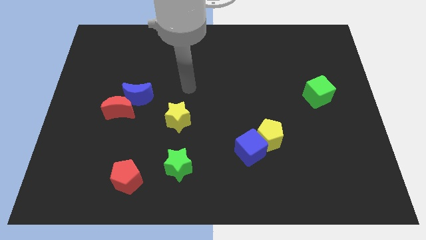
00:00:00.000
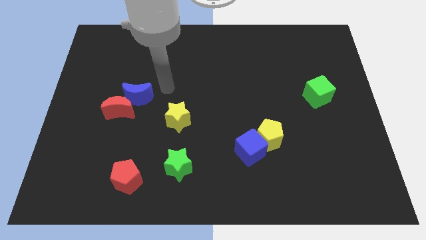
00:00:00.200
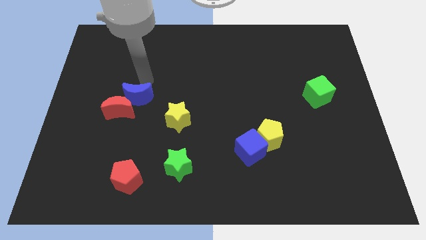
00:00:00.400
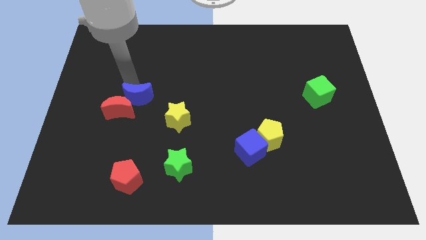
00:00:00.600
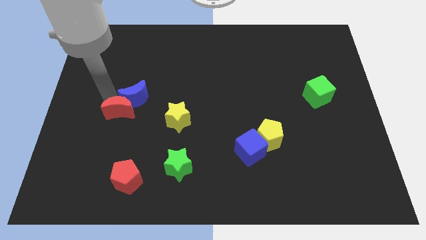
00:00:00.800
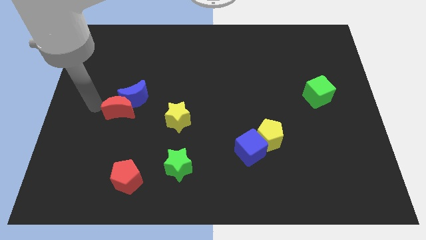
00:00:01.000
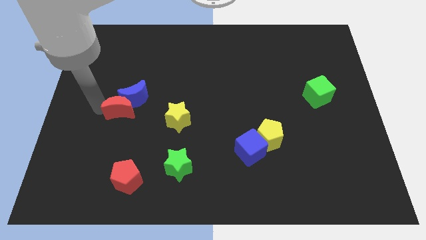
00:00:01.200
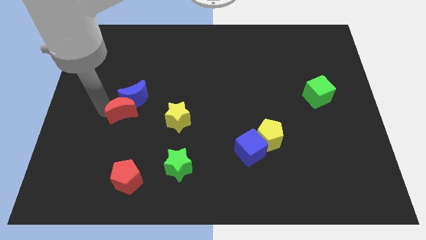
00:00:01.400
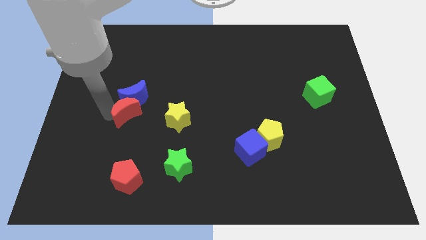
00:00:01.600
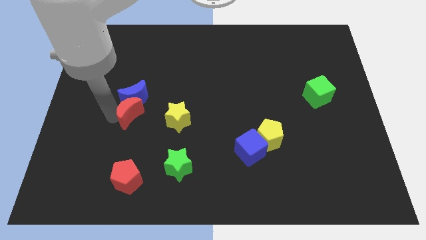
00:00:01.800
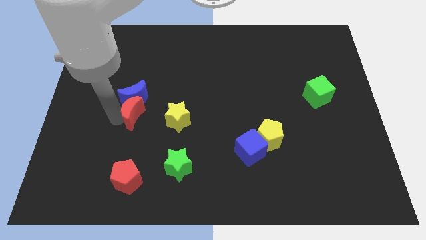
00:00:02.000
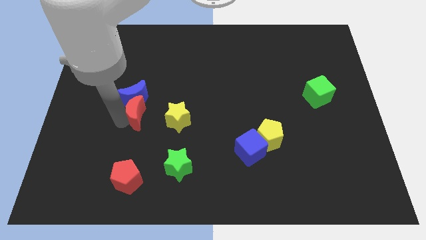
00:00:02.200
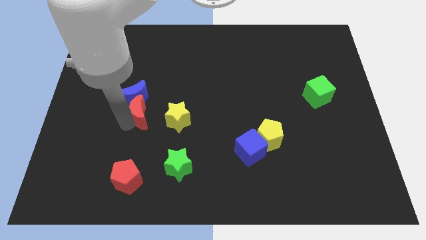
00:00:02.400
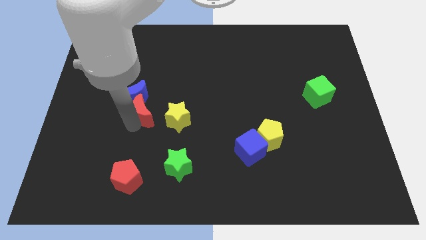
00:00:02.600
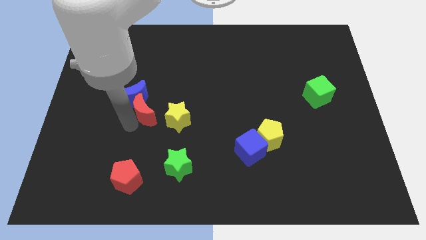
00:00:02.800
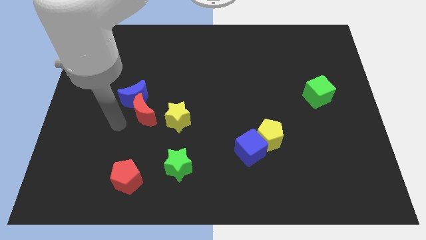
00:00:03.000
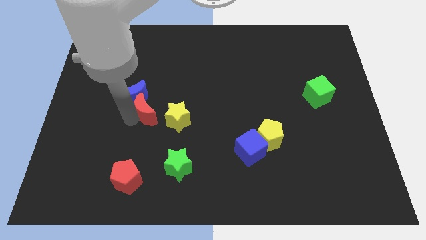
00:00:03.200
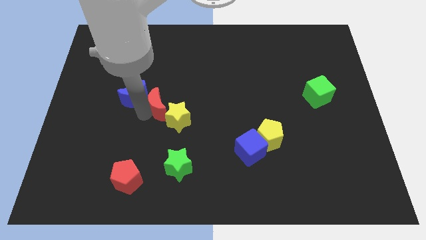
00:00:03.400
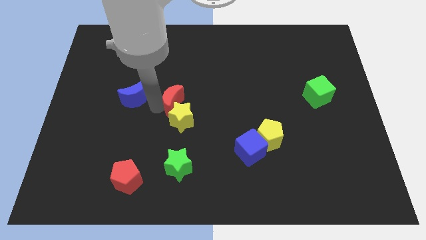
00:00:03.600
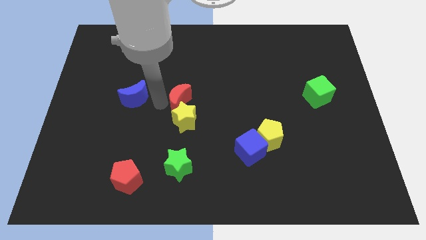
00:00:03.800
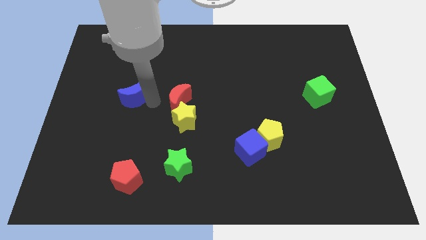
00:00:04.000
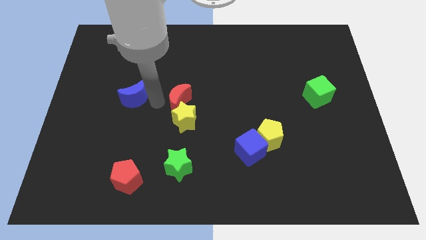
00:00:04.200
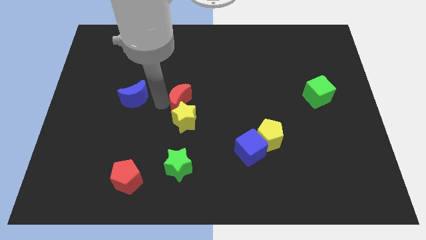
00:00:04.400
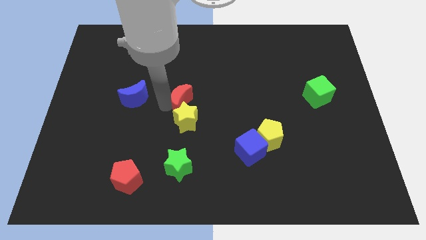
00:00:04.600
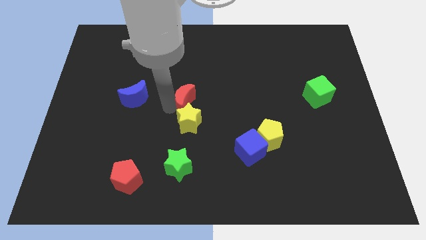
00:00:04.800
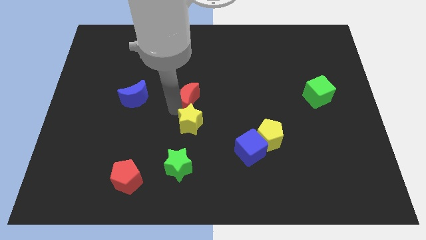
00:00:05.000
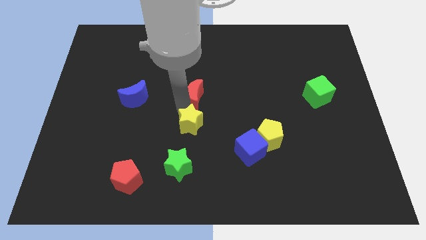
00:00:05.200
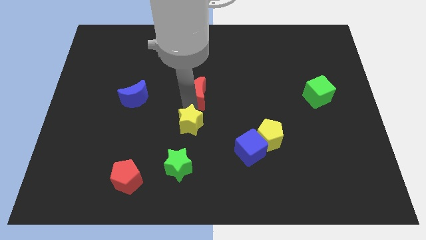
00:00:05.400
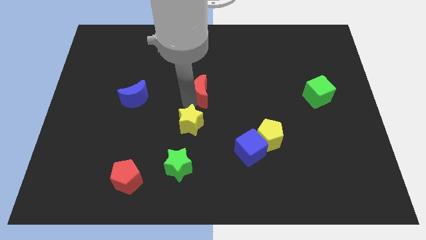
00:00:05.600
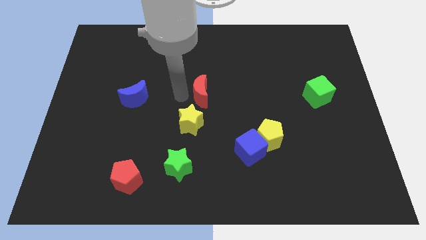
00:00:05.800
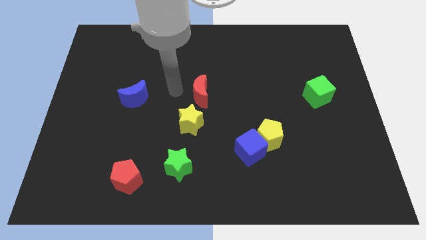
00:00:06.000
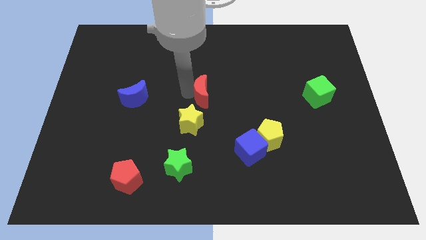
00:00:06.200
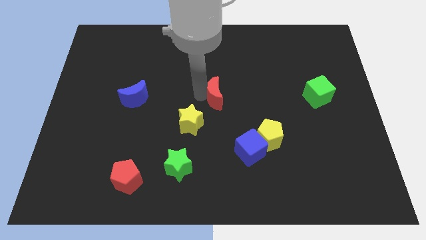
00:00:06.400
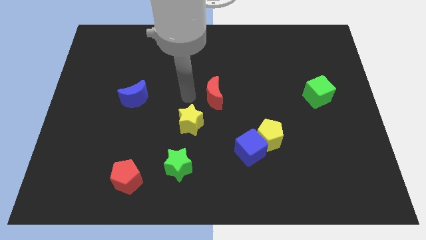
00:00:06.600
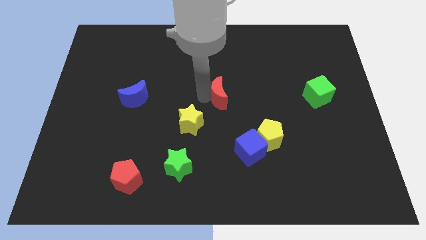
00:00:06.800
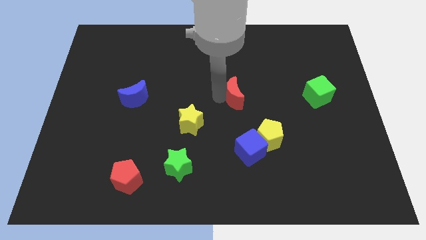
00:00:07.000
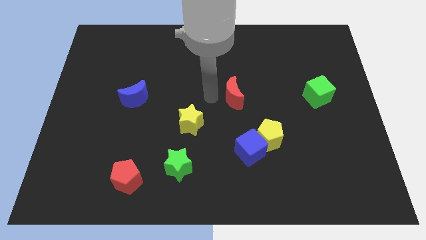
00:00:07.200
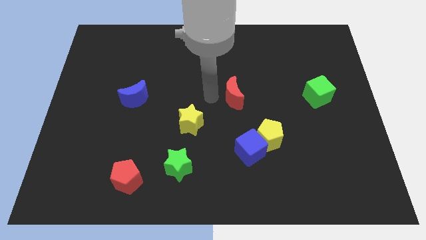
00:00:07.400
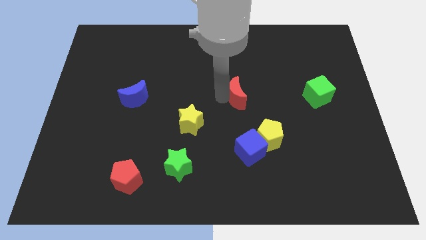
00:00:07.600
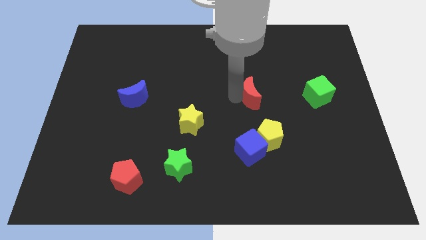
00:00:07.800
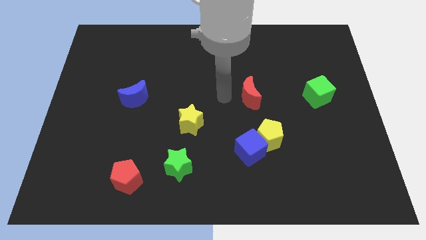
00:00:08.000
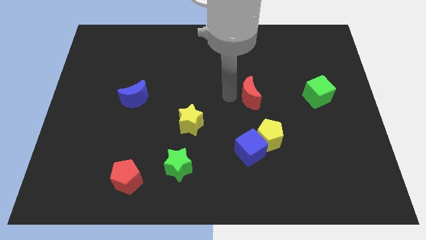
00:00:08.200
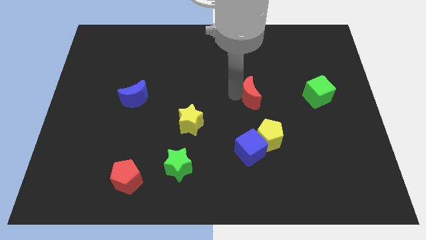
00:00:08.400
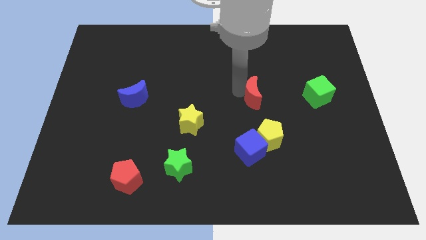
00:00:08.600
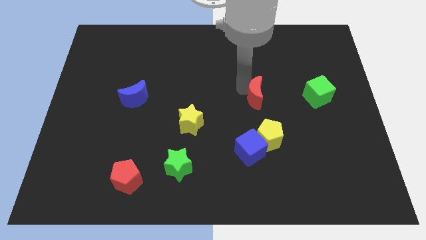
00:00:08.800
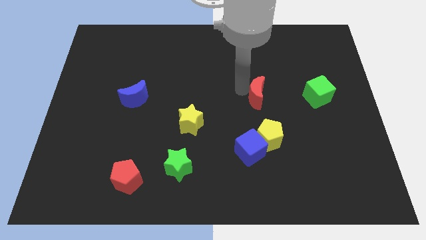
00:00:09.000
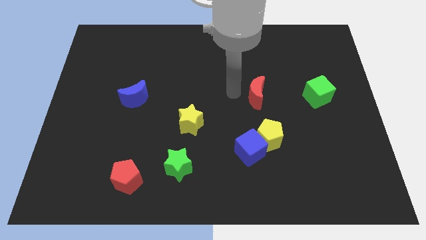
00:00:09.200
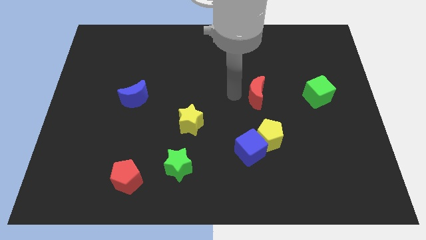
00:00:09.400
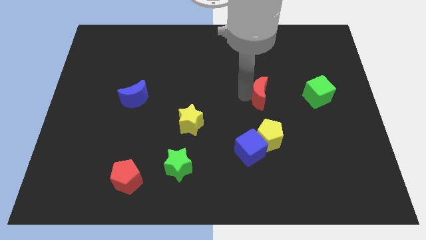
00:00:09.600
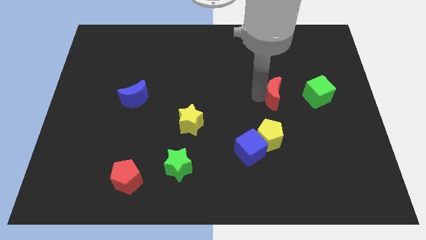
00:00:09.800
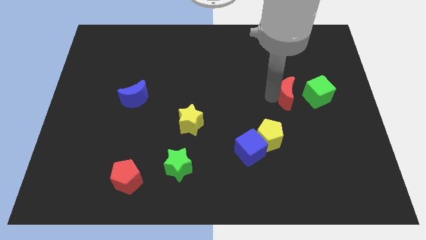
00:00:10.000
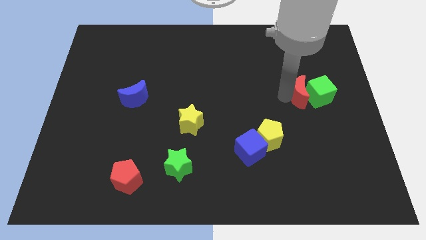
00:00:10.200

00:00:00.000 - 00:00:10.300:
slide the red moon to the green cube

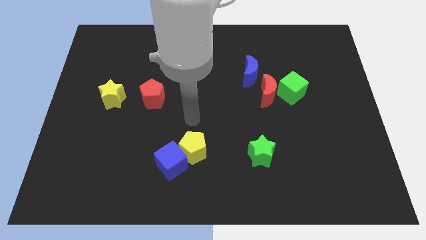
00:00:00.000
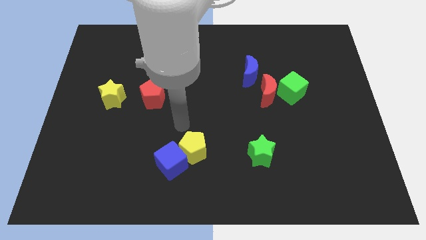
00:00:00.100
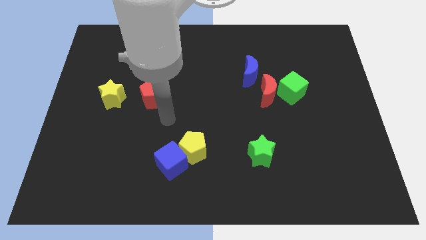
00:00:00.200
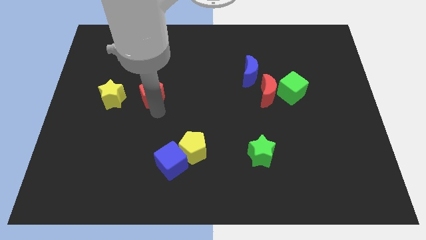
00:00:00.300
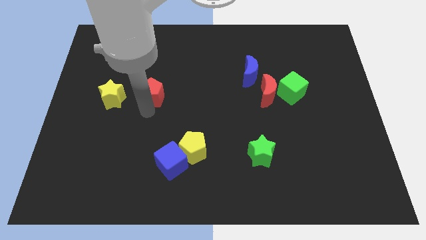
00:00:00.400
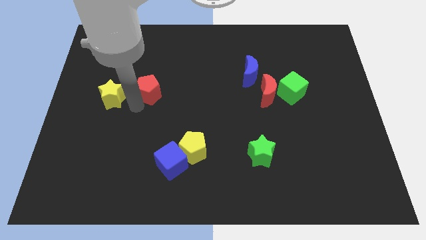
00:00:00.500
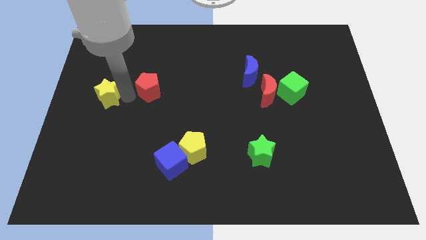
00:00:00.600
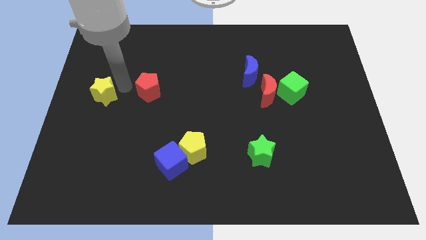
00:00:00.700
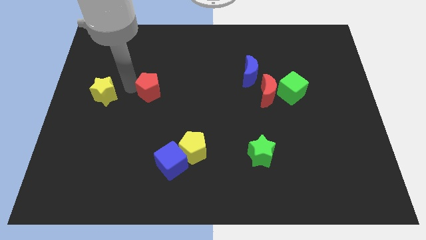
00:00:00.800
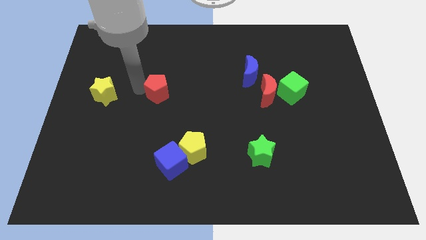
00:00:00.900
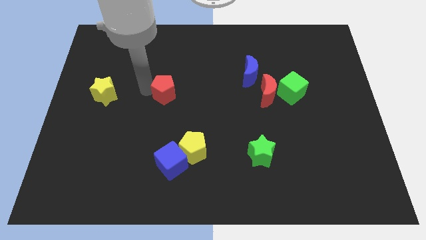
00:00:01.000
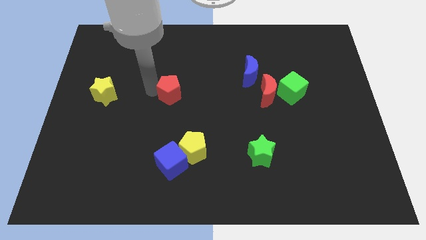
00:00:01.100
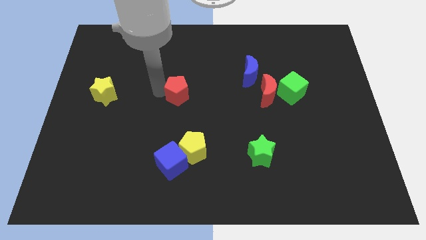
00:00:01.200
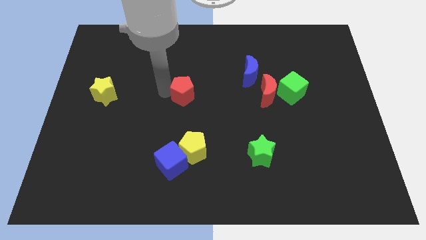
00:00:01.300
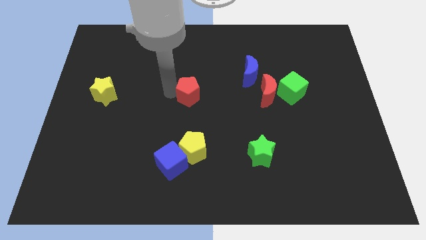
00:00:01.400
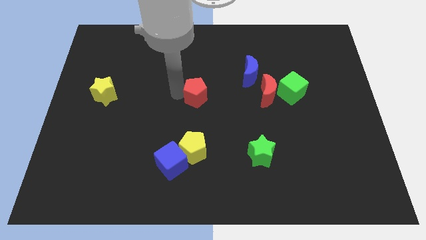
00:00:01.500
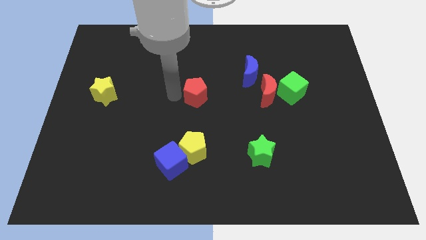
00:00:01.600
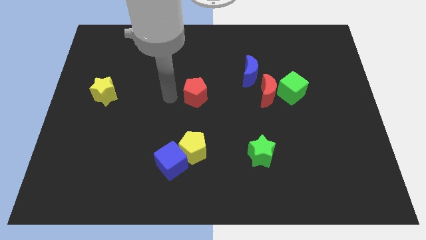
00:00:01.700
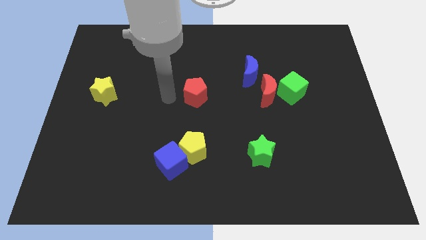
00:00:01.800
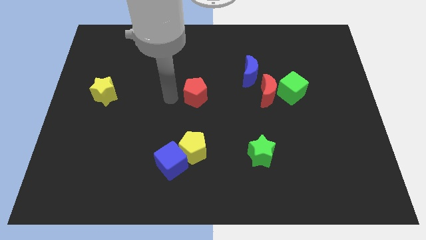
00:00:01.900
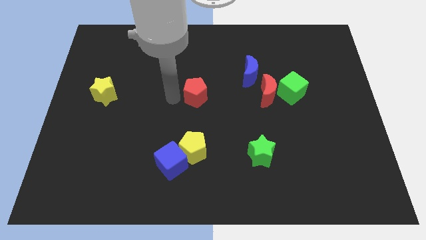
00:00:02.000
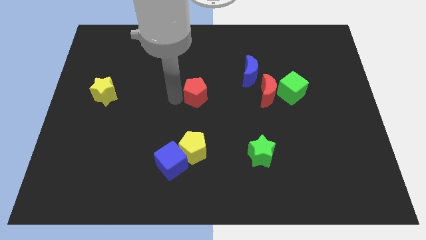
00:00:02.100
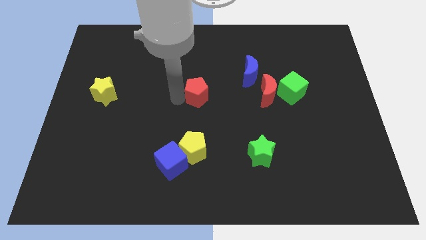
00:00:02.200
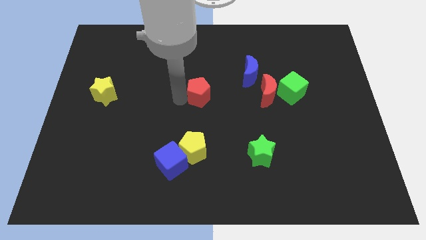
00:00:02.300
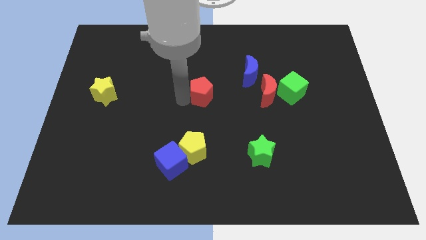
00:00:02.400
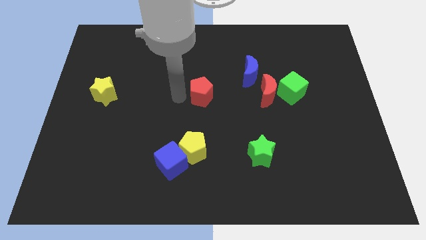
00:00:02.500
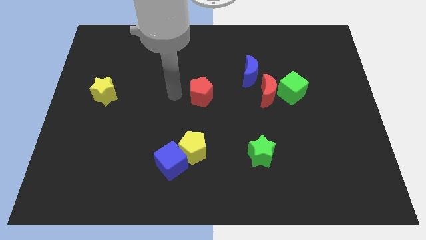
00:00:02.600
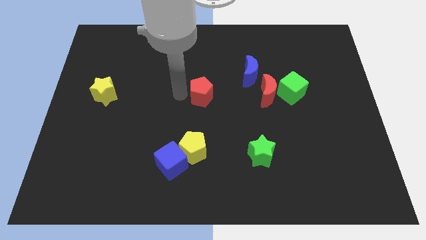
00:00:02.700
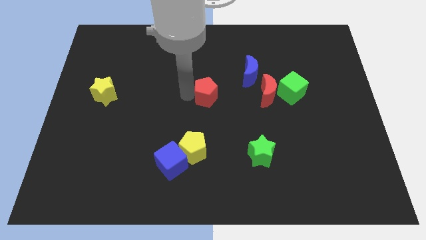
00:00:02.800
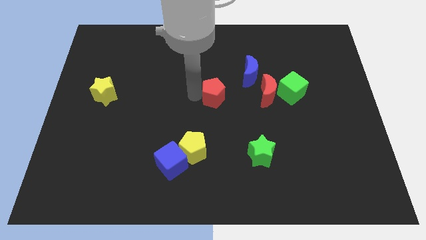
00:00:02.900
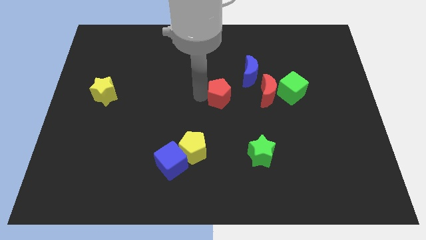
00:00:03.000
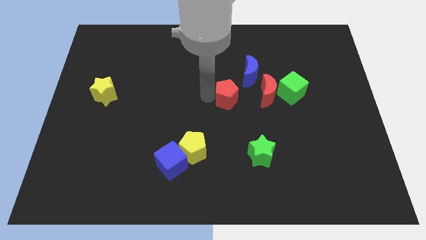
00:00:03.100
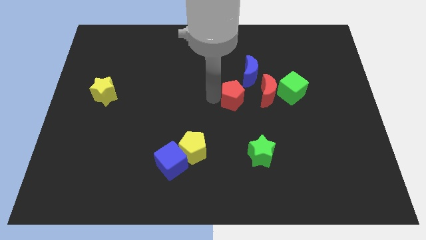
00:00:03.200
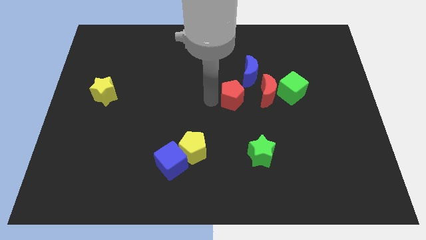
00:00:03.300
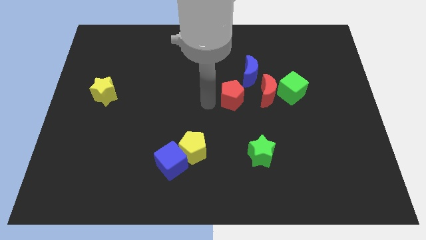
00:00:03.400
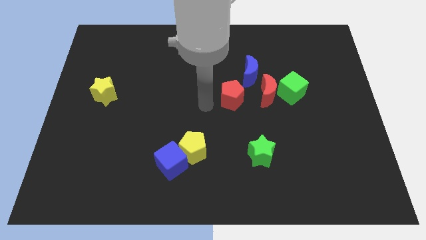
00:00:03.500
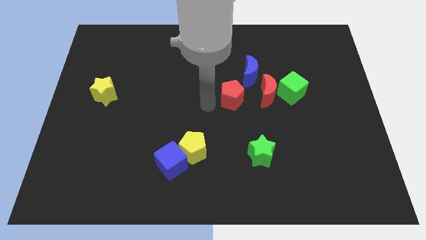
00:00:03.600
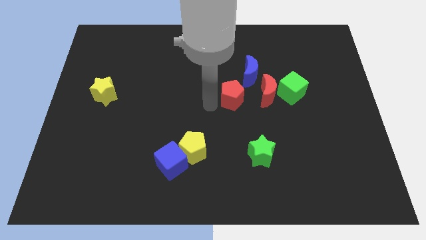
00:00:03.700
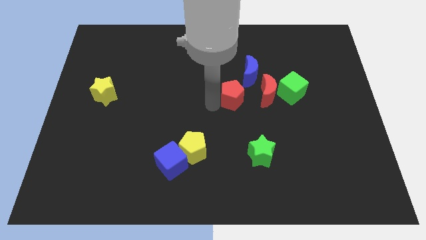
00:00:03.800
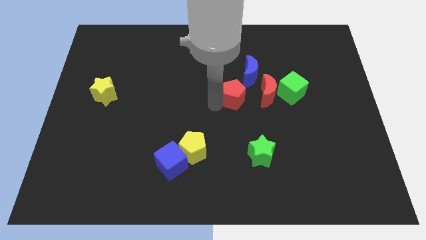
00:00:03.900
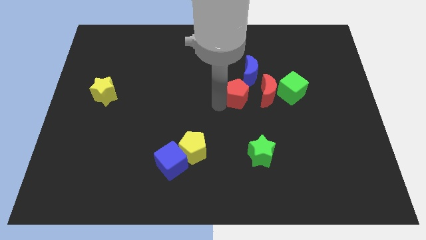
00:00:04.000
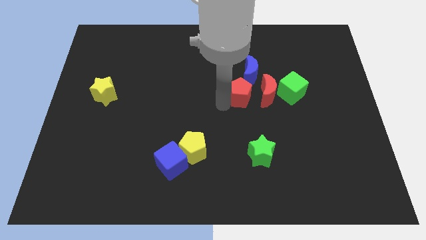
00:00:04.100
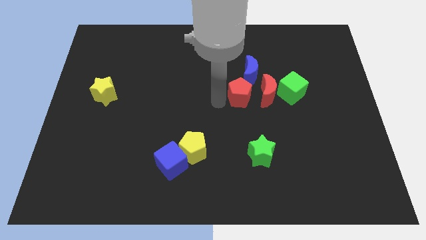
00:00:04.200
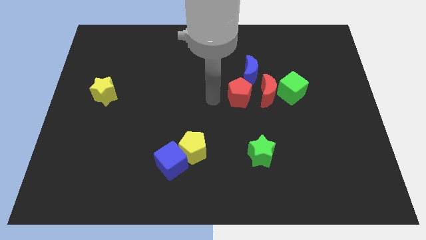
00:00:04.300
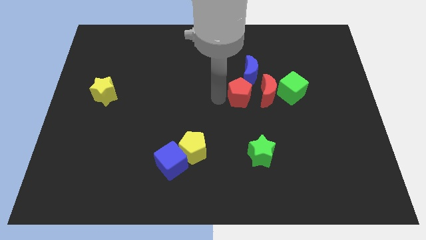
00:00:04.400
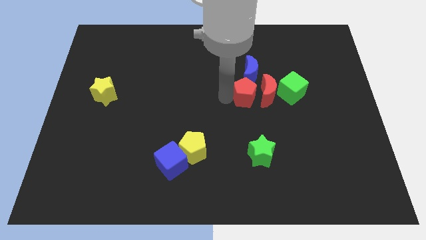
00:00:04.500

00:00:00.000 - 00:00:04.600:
push the red pentagon close to the red moon
